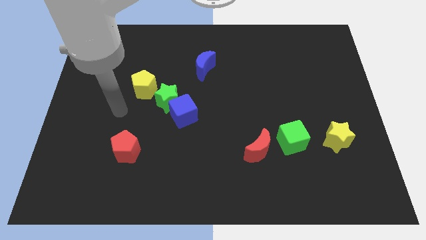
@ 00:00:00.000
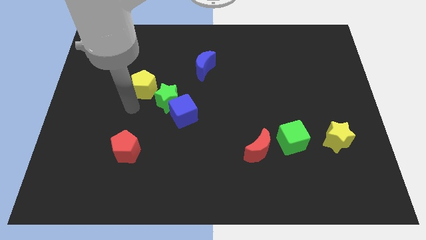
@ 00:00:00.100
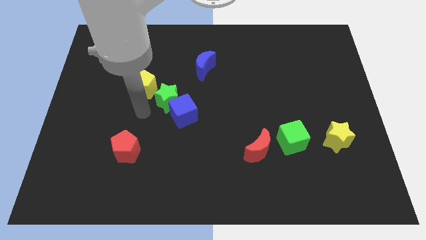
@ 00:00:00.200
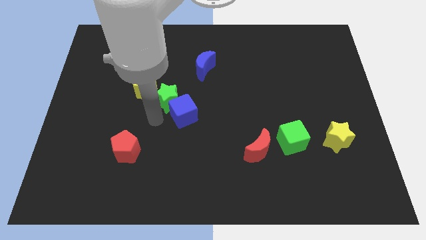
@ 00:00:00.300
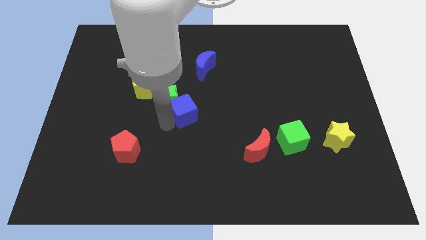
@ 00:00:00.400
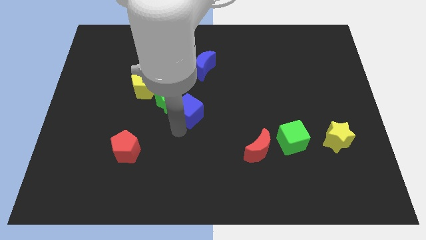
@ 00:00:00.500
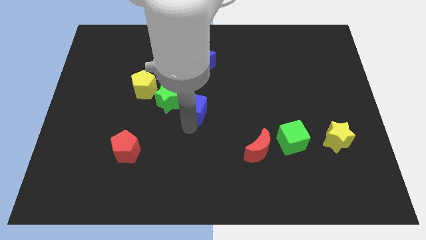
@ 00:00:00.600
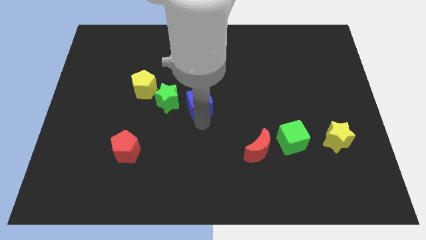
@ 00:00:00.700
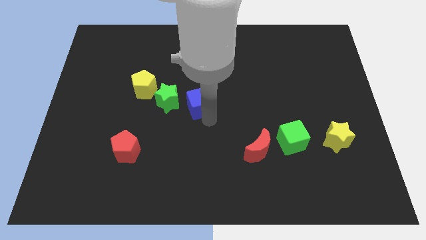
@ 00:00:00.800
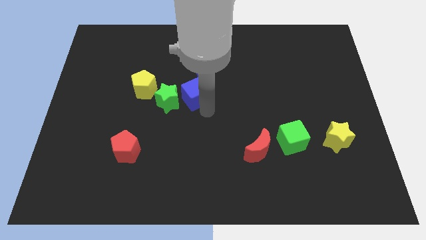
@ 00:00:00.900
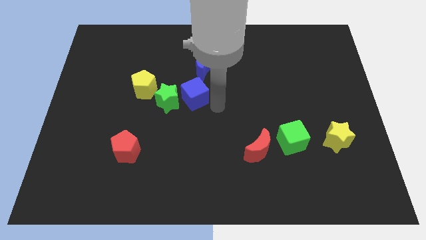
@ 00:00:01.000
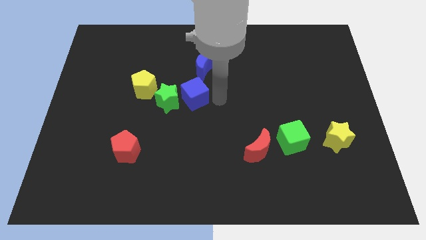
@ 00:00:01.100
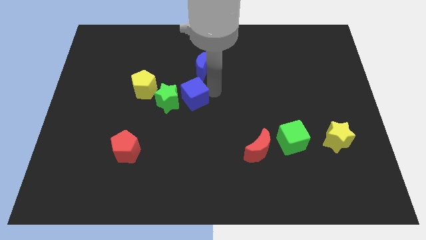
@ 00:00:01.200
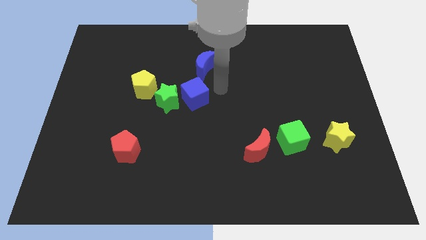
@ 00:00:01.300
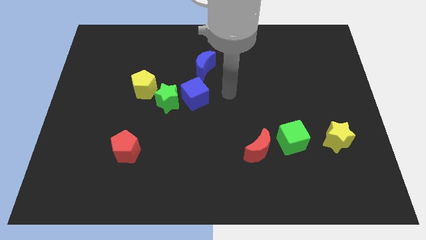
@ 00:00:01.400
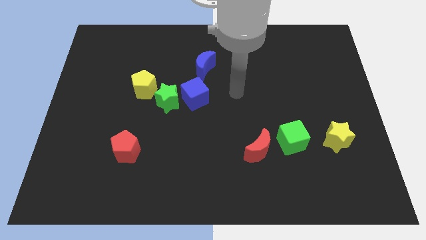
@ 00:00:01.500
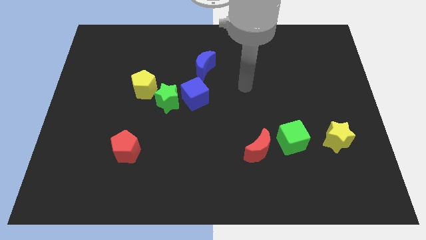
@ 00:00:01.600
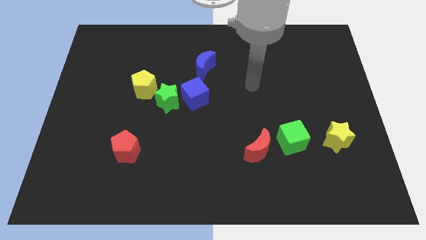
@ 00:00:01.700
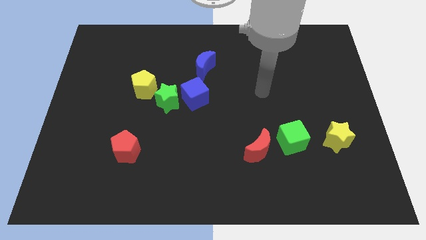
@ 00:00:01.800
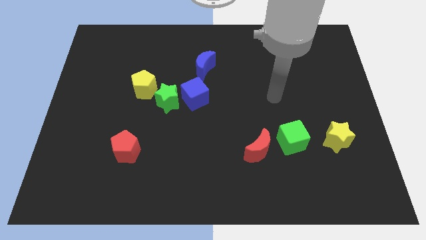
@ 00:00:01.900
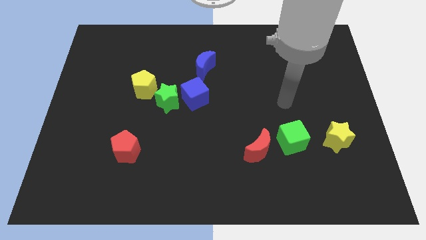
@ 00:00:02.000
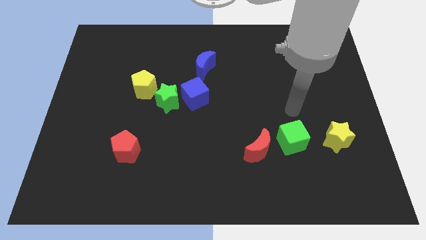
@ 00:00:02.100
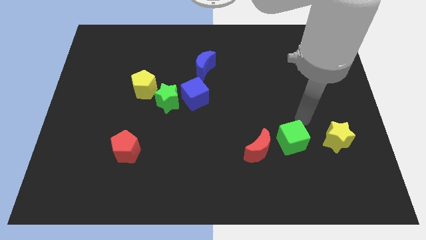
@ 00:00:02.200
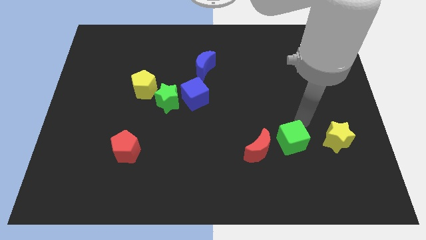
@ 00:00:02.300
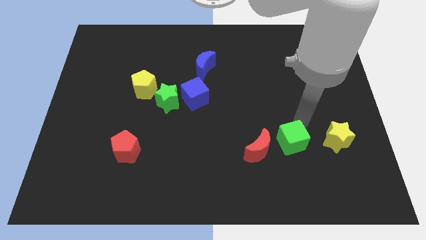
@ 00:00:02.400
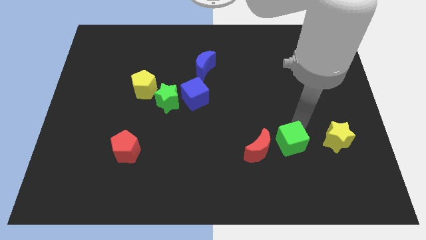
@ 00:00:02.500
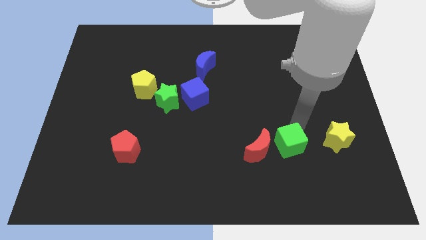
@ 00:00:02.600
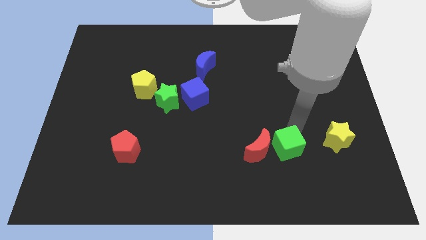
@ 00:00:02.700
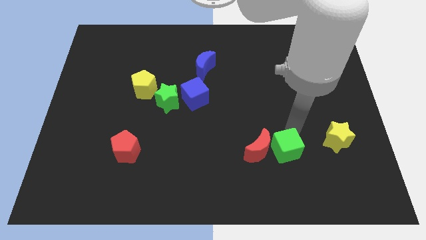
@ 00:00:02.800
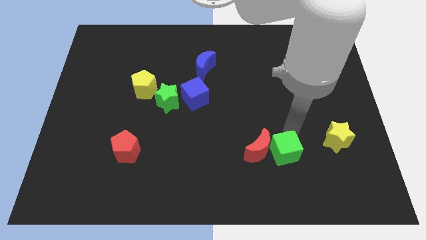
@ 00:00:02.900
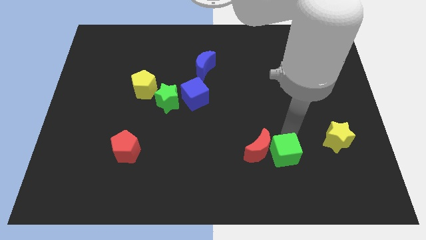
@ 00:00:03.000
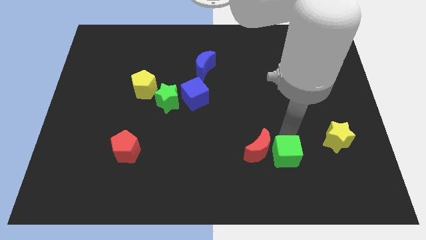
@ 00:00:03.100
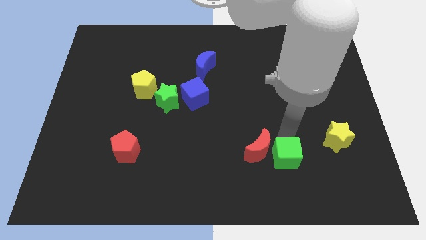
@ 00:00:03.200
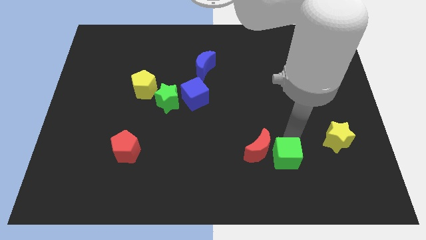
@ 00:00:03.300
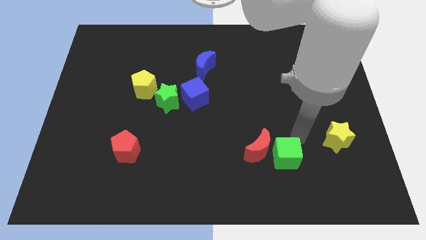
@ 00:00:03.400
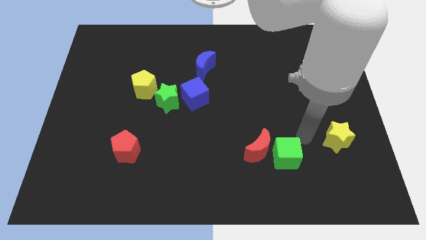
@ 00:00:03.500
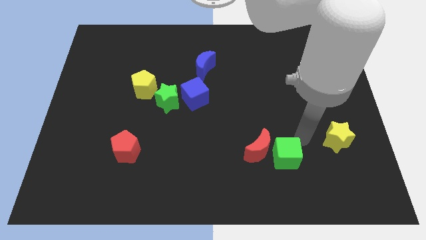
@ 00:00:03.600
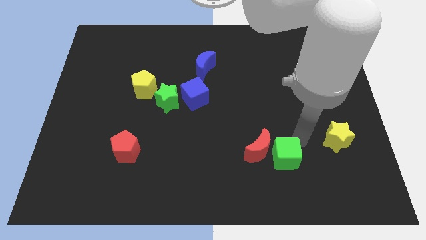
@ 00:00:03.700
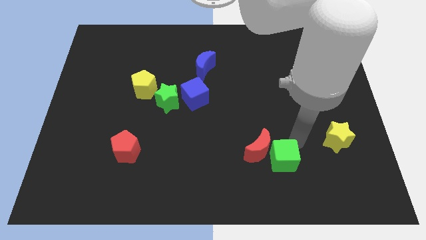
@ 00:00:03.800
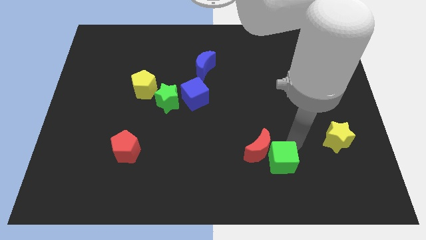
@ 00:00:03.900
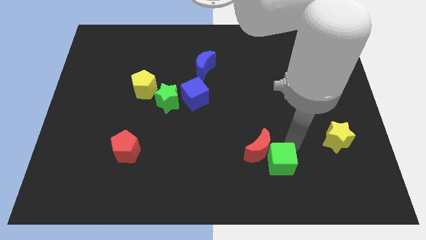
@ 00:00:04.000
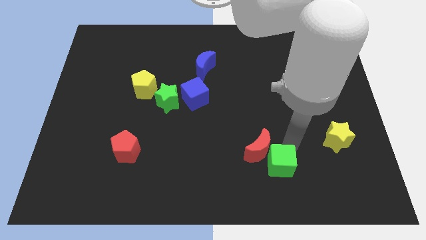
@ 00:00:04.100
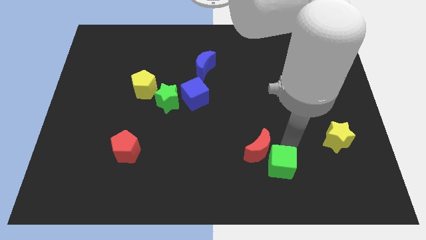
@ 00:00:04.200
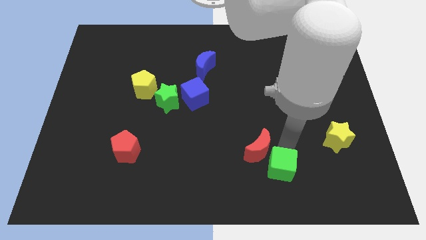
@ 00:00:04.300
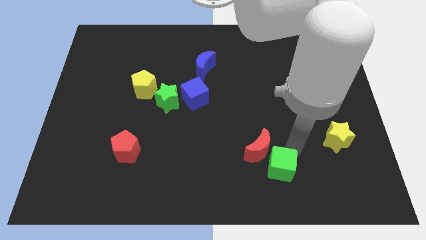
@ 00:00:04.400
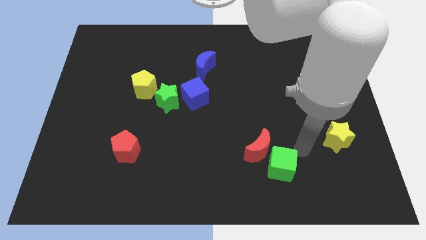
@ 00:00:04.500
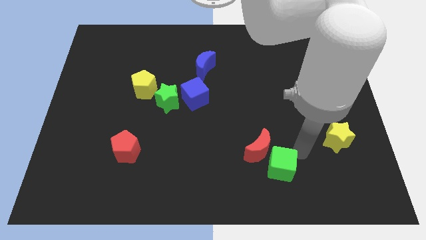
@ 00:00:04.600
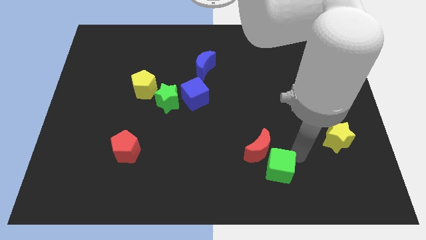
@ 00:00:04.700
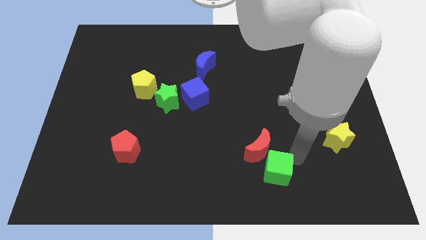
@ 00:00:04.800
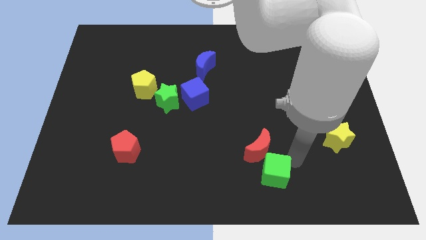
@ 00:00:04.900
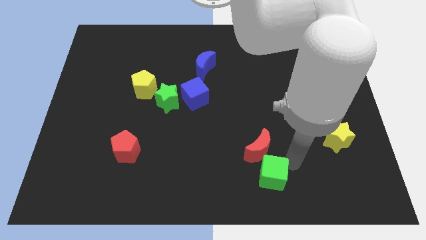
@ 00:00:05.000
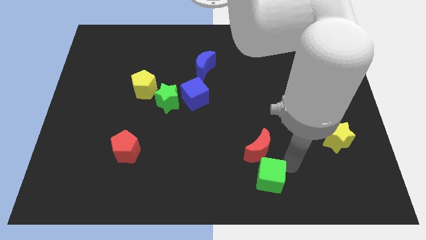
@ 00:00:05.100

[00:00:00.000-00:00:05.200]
push the green cube to the bottom side
